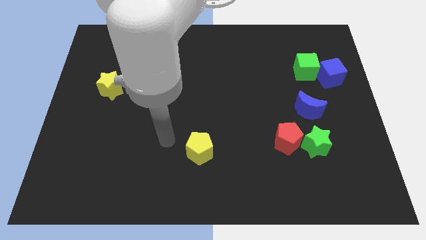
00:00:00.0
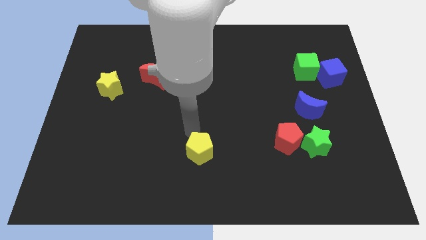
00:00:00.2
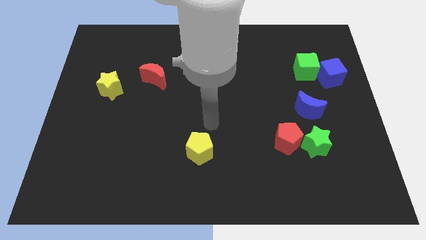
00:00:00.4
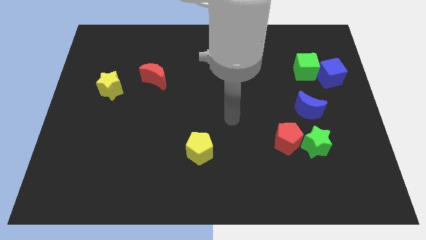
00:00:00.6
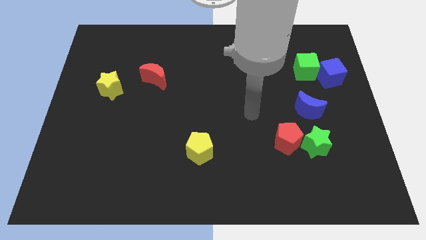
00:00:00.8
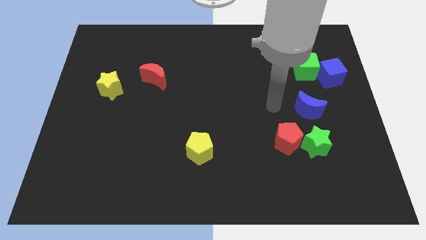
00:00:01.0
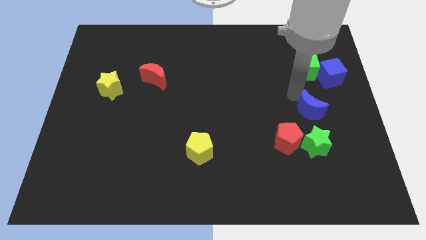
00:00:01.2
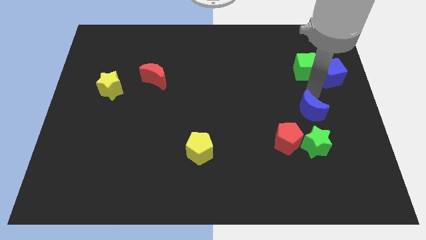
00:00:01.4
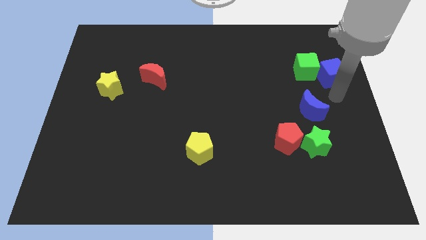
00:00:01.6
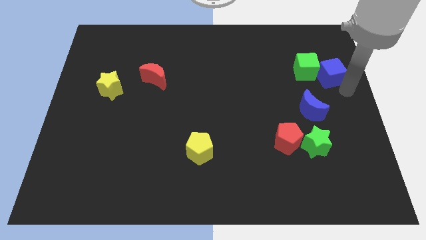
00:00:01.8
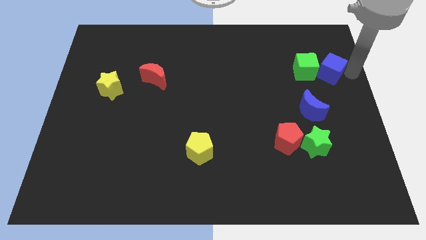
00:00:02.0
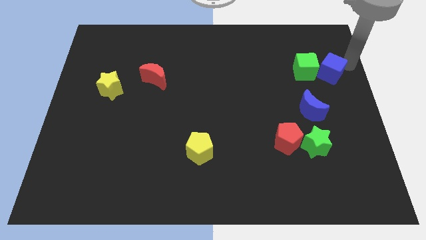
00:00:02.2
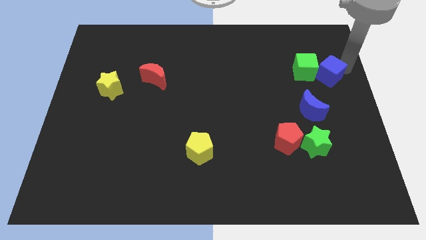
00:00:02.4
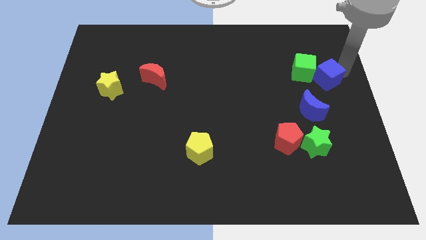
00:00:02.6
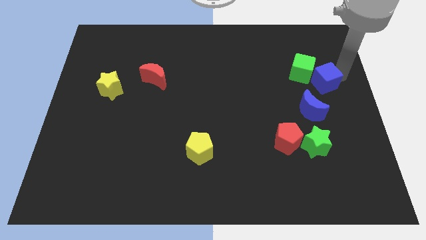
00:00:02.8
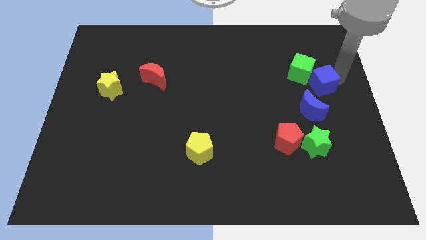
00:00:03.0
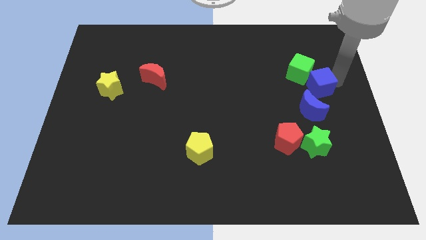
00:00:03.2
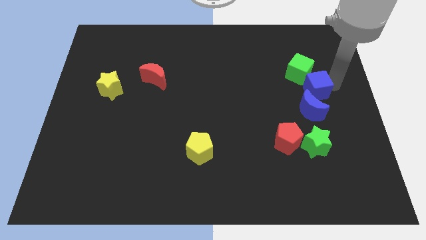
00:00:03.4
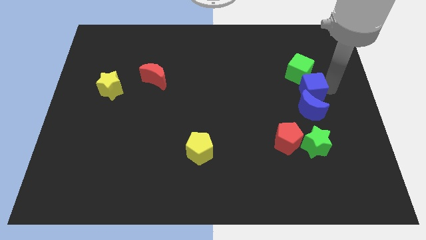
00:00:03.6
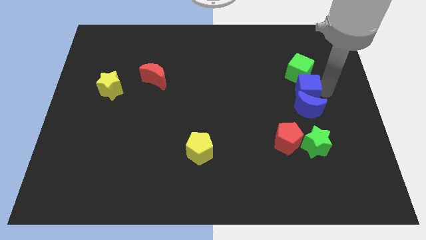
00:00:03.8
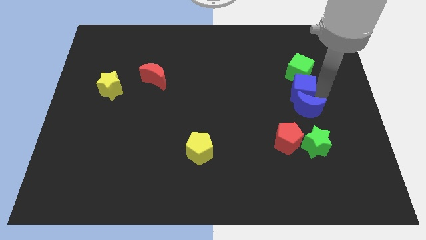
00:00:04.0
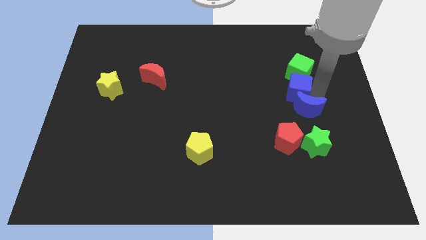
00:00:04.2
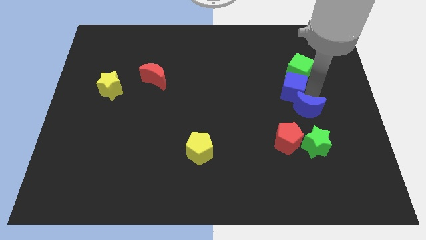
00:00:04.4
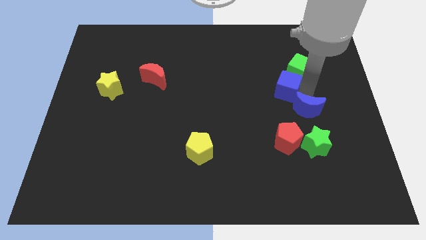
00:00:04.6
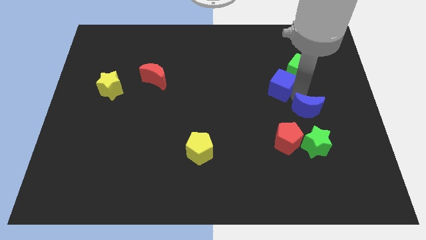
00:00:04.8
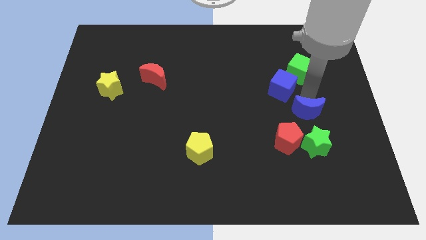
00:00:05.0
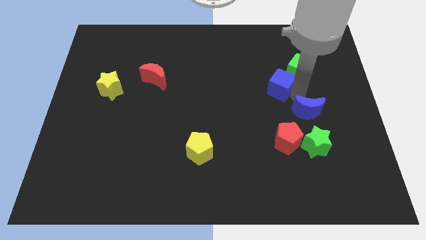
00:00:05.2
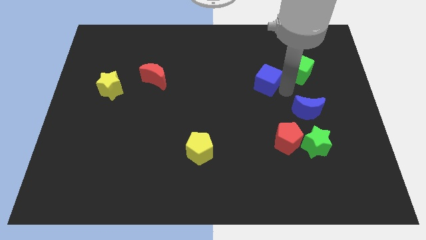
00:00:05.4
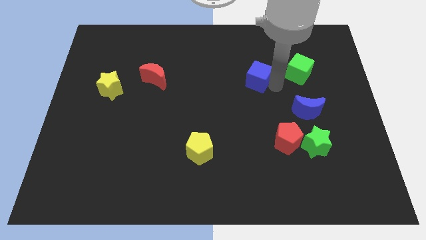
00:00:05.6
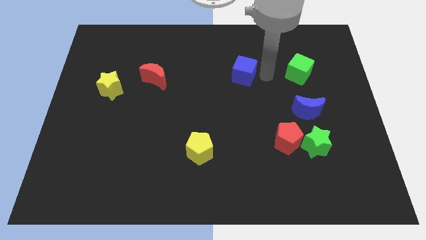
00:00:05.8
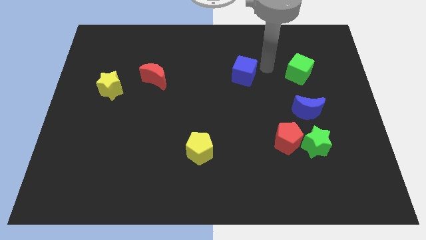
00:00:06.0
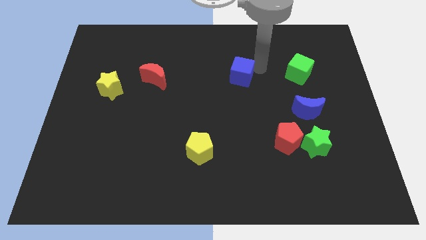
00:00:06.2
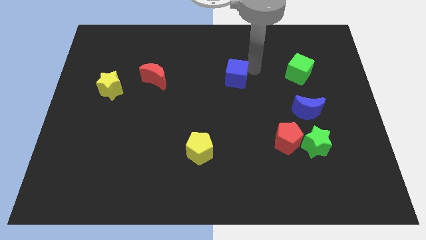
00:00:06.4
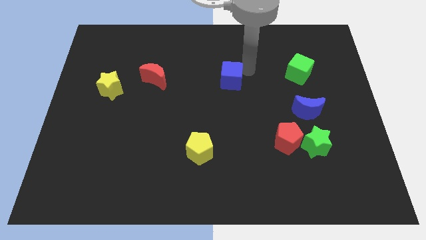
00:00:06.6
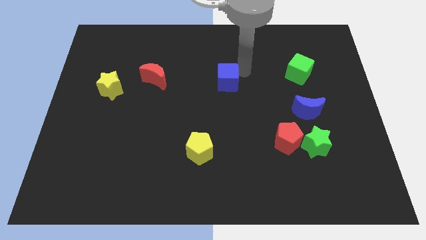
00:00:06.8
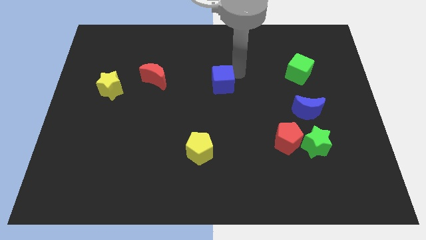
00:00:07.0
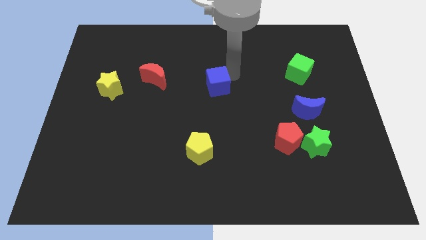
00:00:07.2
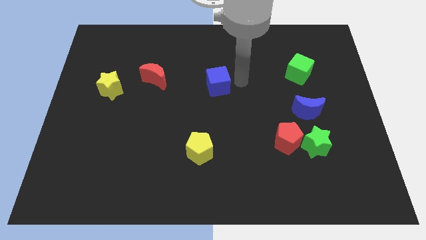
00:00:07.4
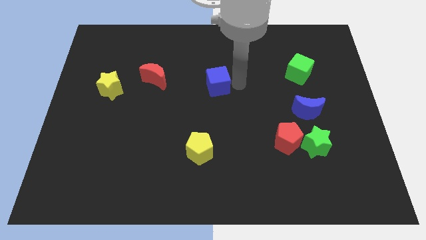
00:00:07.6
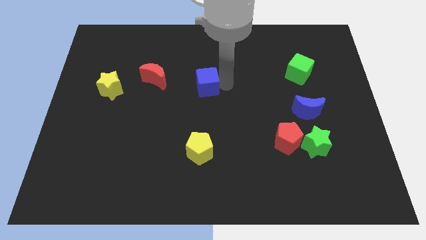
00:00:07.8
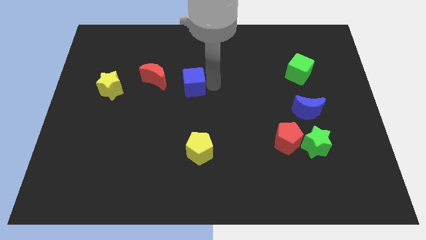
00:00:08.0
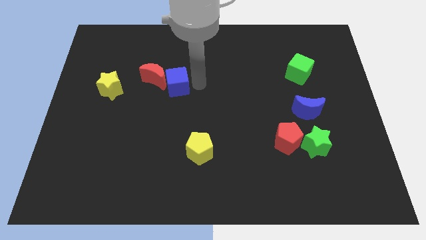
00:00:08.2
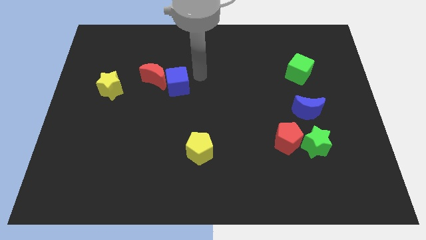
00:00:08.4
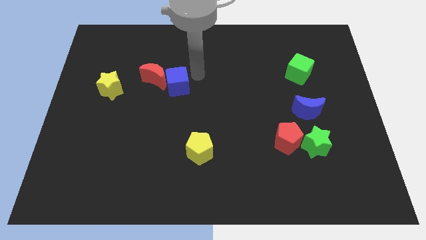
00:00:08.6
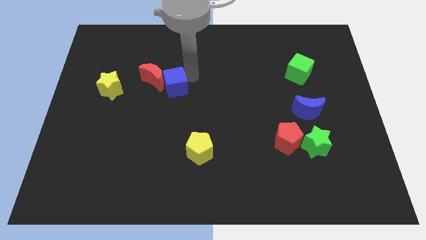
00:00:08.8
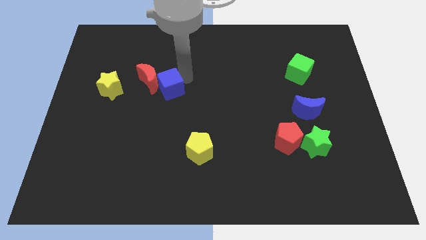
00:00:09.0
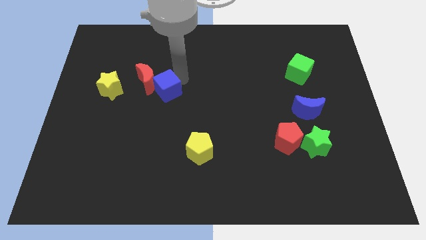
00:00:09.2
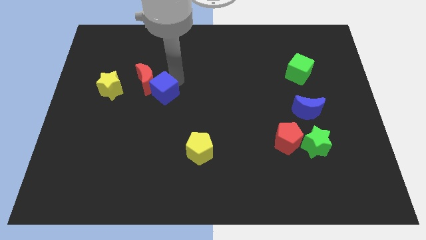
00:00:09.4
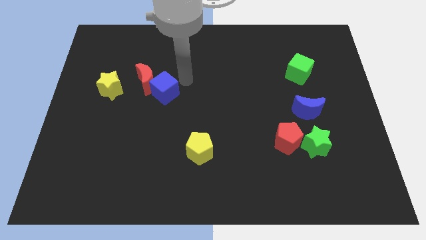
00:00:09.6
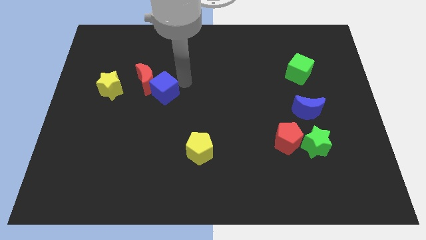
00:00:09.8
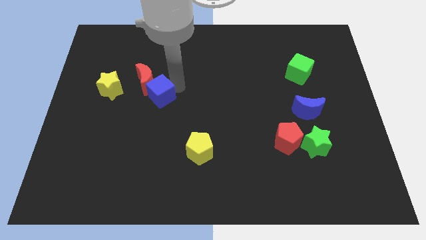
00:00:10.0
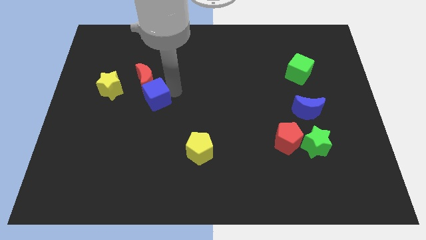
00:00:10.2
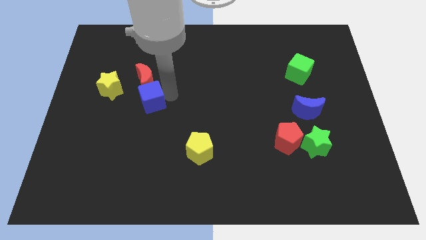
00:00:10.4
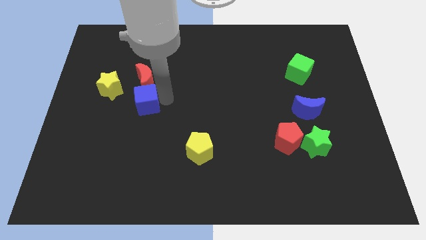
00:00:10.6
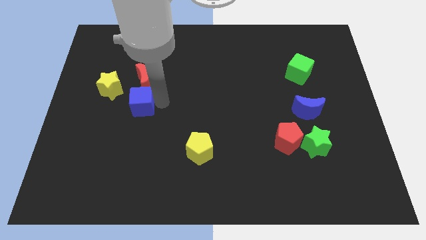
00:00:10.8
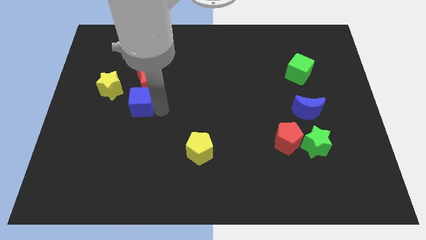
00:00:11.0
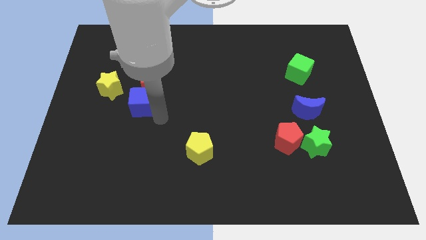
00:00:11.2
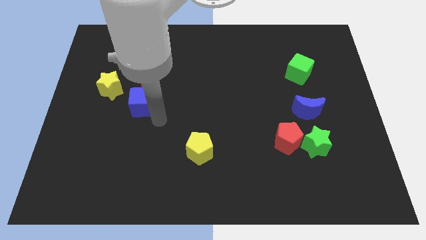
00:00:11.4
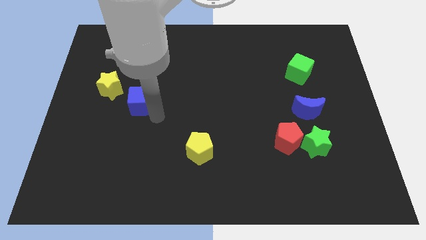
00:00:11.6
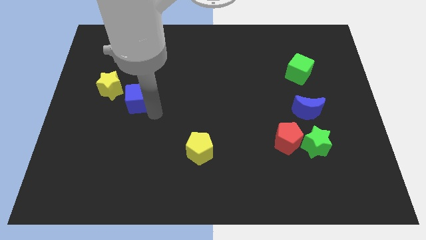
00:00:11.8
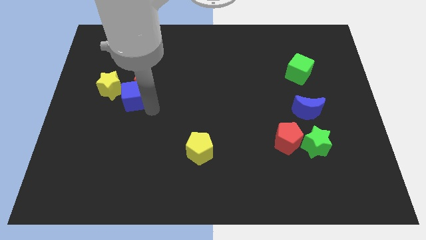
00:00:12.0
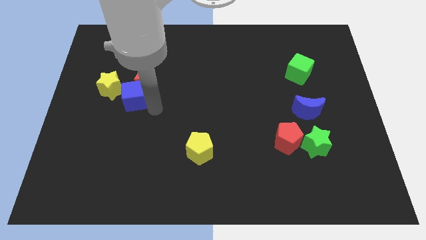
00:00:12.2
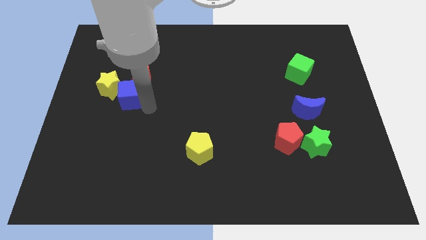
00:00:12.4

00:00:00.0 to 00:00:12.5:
put the blue cube close to the yellow star

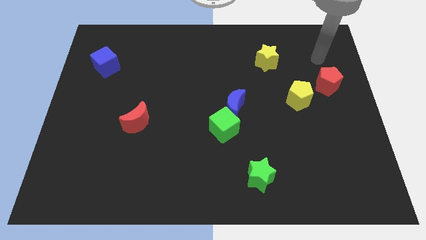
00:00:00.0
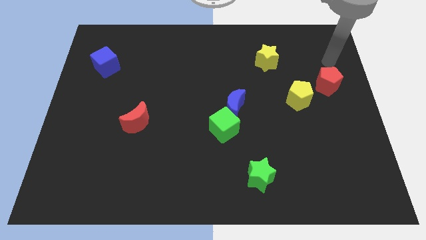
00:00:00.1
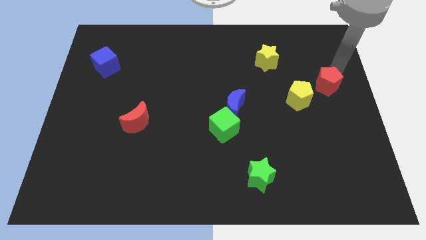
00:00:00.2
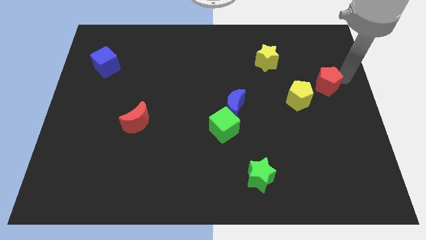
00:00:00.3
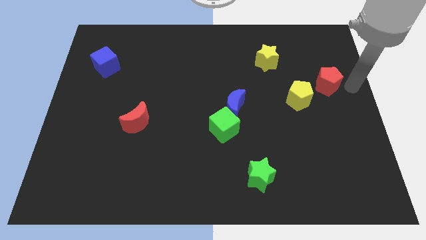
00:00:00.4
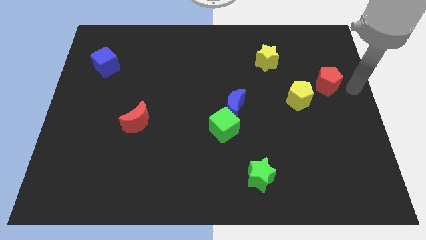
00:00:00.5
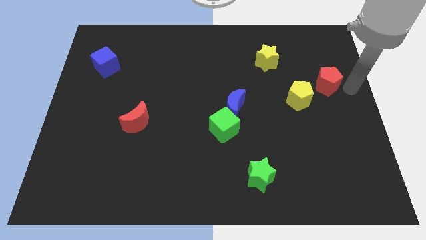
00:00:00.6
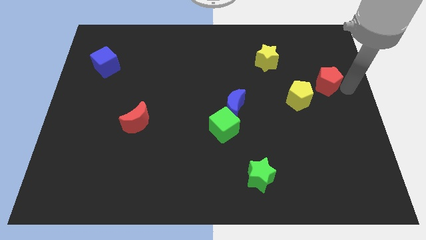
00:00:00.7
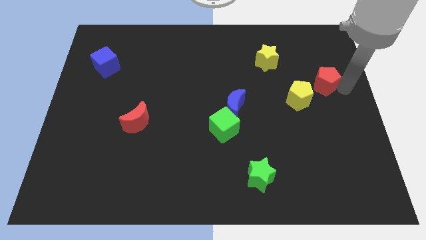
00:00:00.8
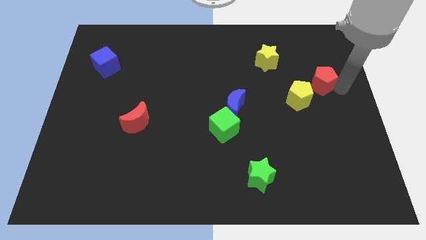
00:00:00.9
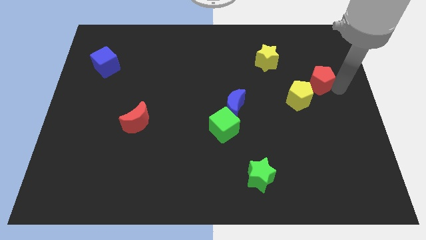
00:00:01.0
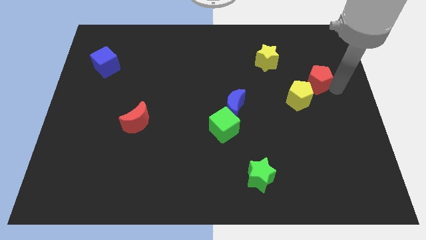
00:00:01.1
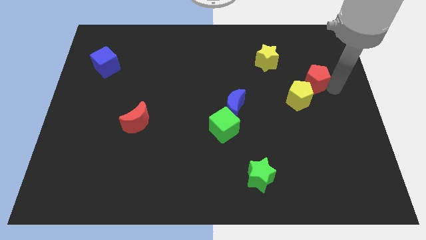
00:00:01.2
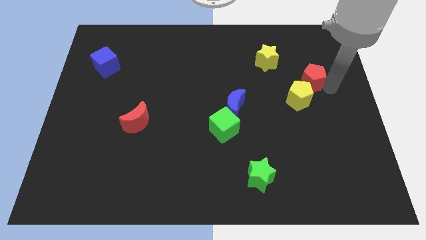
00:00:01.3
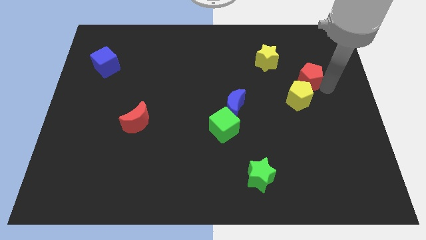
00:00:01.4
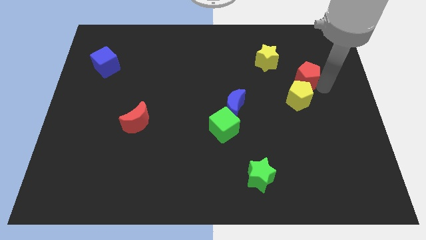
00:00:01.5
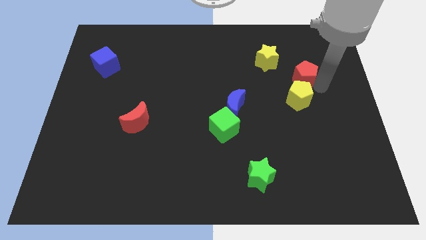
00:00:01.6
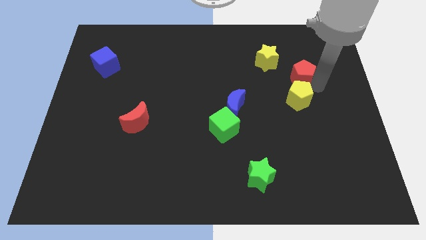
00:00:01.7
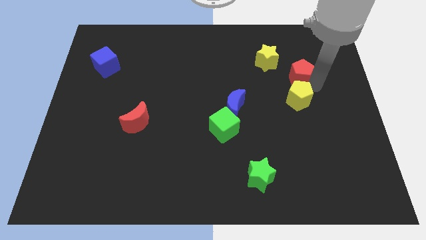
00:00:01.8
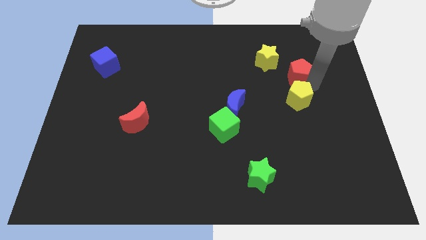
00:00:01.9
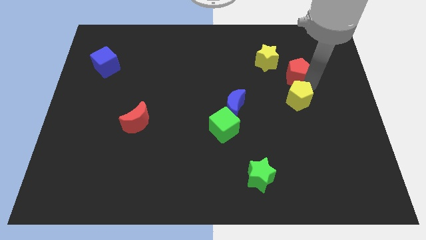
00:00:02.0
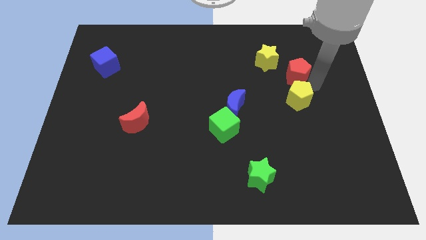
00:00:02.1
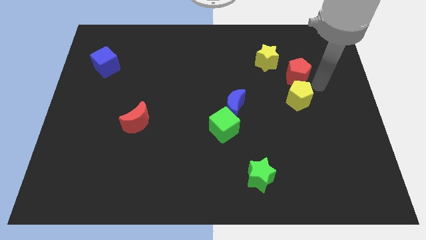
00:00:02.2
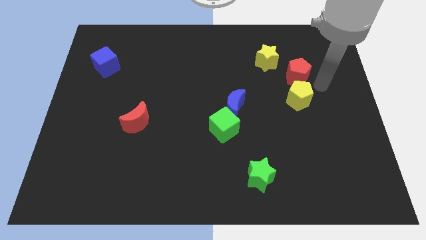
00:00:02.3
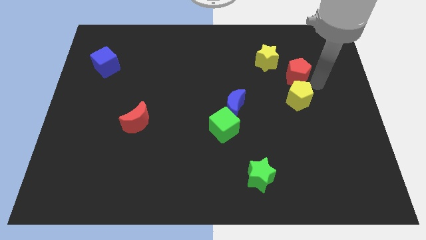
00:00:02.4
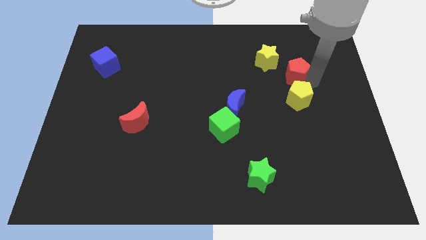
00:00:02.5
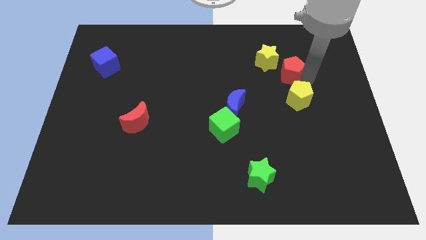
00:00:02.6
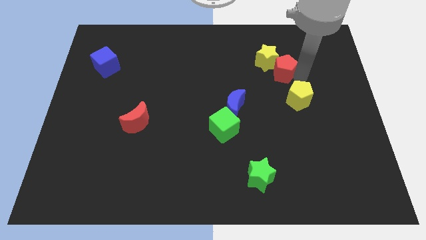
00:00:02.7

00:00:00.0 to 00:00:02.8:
move the red pentagon close to the yellow star
